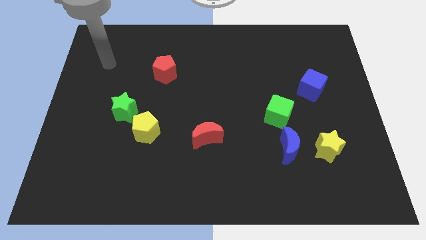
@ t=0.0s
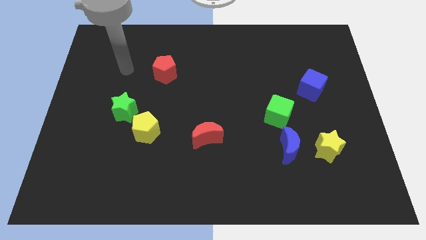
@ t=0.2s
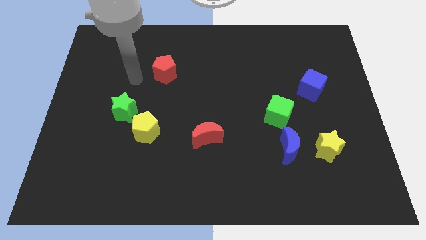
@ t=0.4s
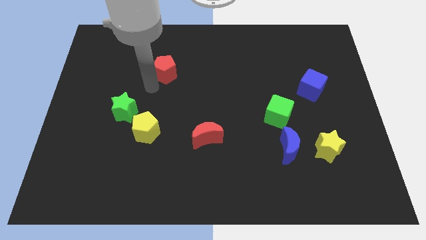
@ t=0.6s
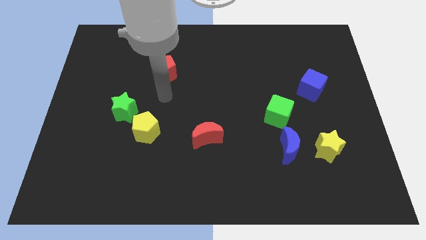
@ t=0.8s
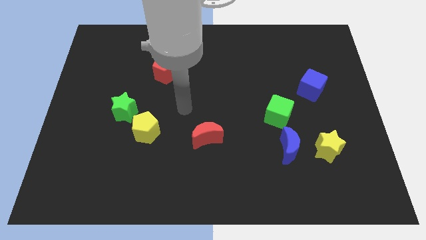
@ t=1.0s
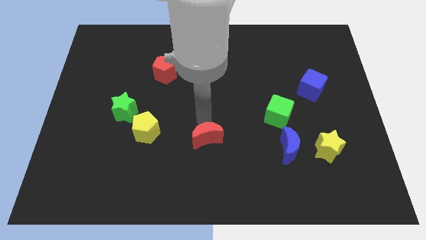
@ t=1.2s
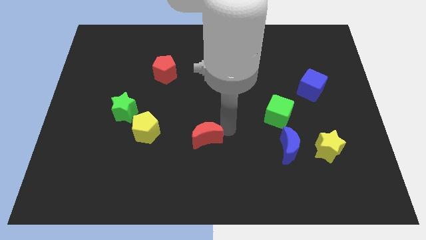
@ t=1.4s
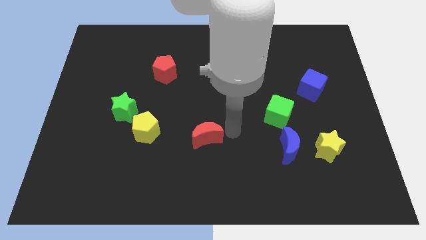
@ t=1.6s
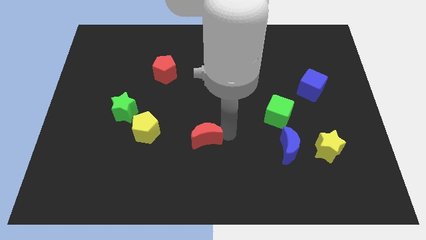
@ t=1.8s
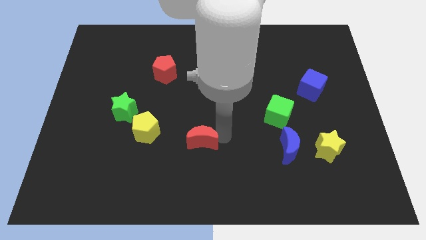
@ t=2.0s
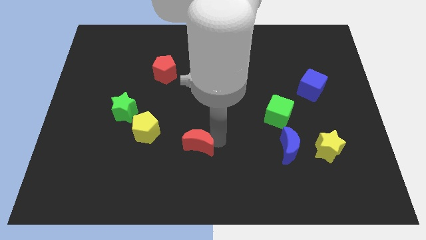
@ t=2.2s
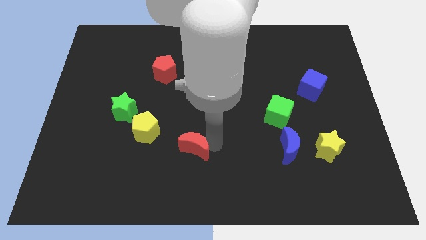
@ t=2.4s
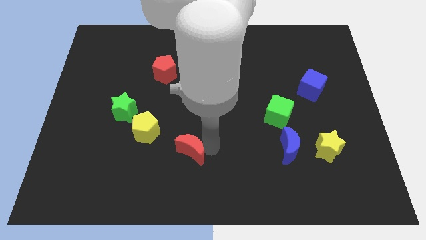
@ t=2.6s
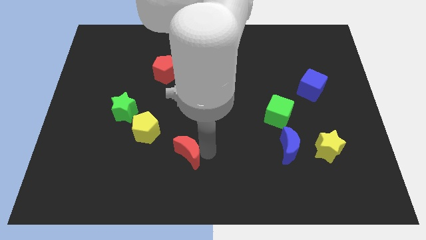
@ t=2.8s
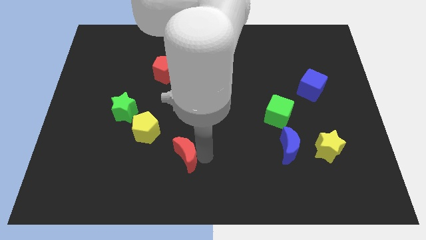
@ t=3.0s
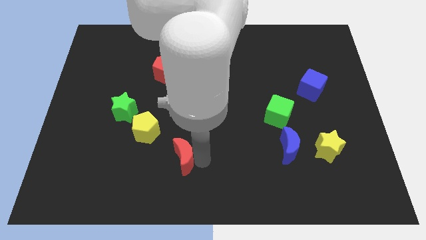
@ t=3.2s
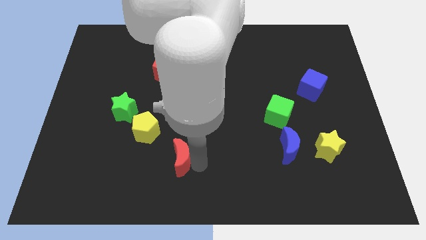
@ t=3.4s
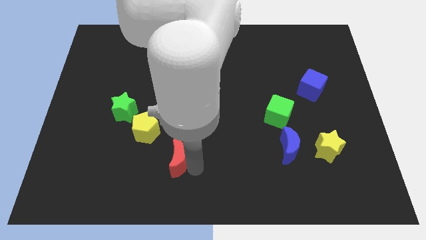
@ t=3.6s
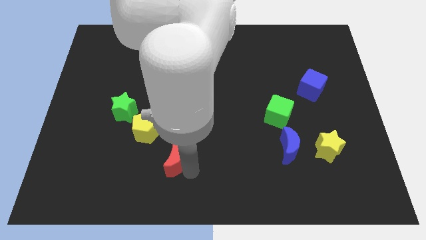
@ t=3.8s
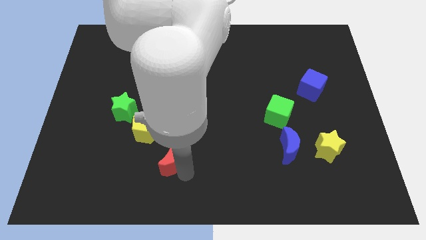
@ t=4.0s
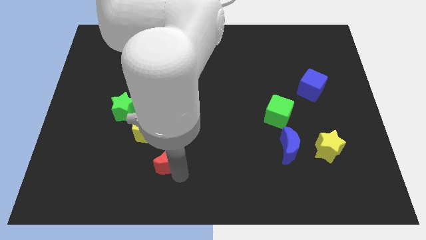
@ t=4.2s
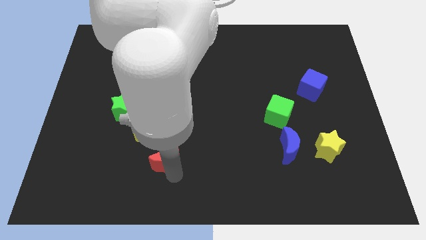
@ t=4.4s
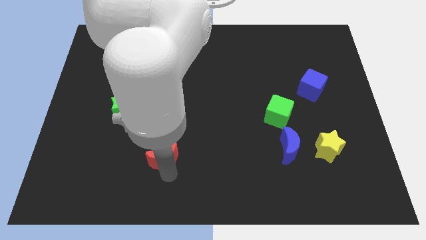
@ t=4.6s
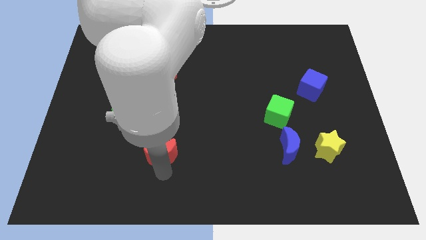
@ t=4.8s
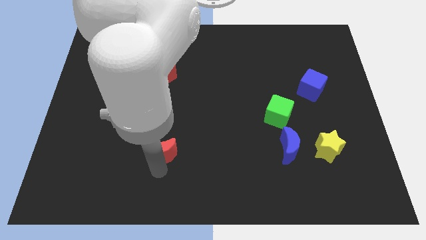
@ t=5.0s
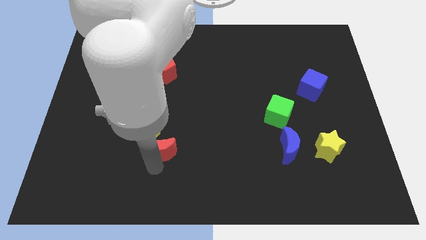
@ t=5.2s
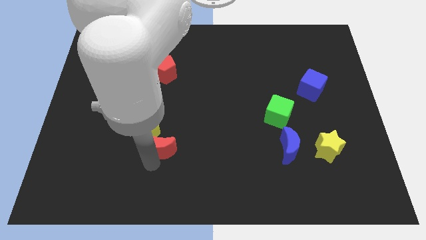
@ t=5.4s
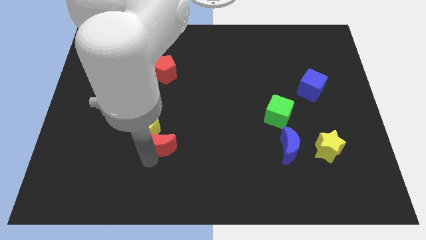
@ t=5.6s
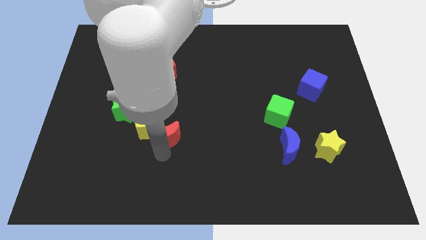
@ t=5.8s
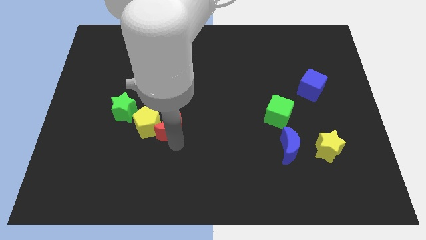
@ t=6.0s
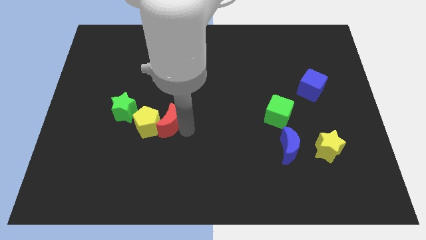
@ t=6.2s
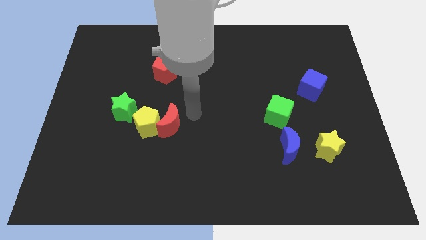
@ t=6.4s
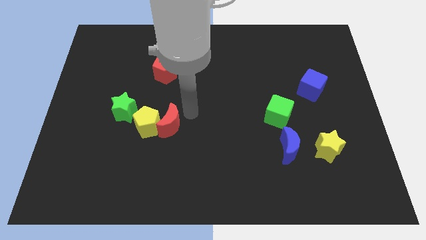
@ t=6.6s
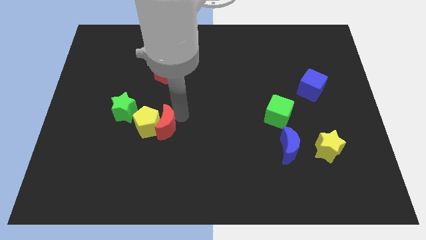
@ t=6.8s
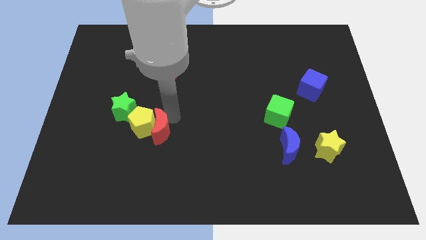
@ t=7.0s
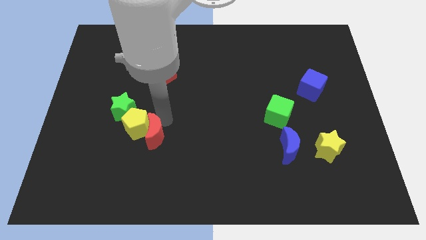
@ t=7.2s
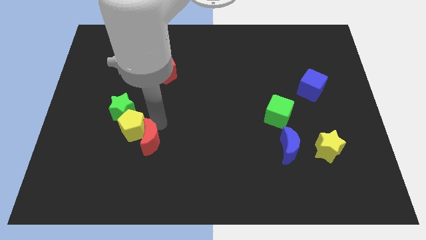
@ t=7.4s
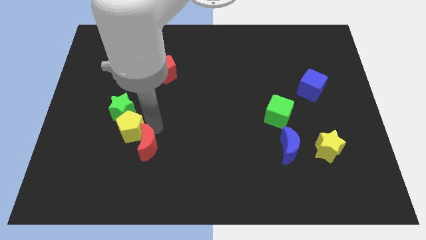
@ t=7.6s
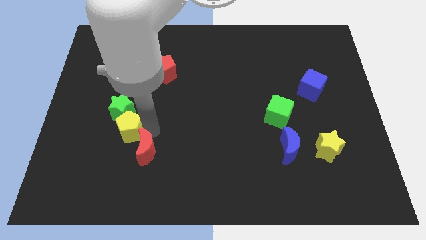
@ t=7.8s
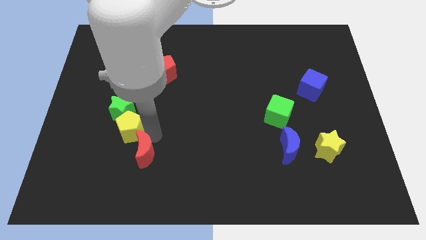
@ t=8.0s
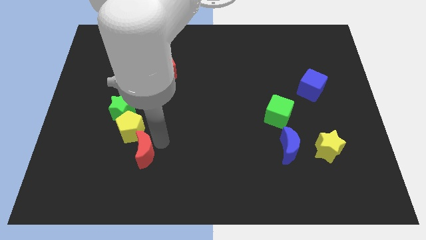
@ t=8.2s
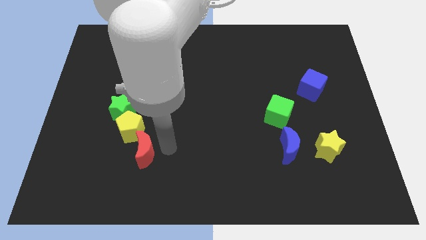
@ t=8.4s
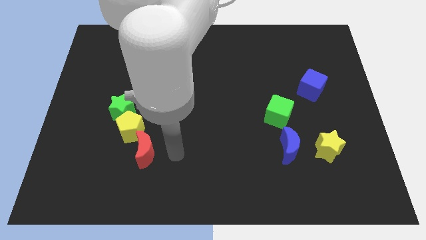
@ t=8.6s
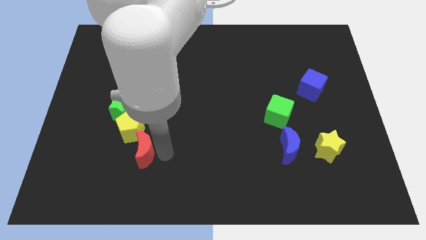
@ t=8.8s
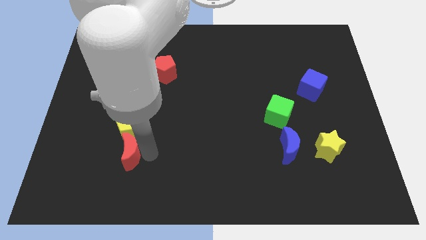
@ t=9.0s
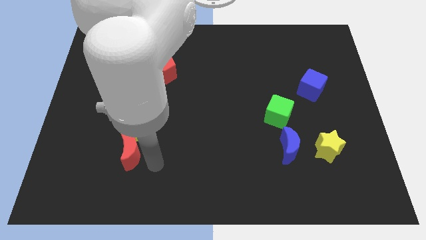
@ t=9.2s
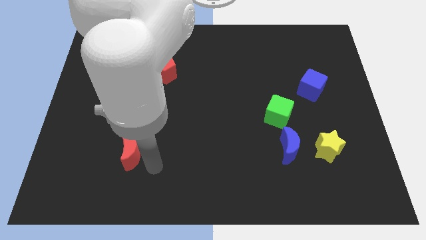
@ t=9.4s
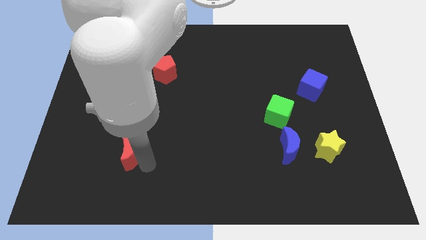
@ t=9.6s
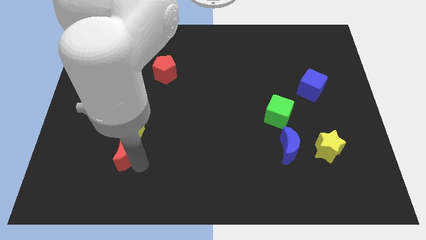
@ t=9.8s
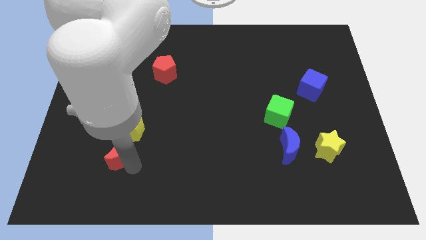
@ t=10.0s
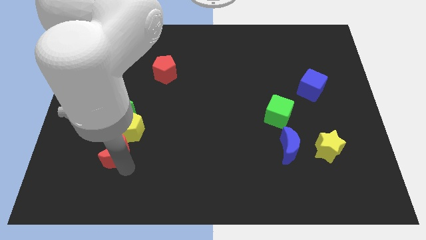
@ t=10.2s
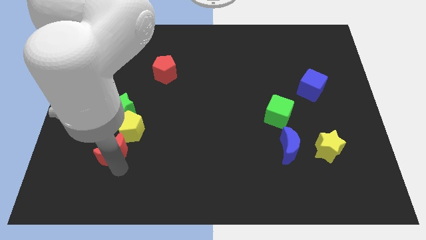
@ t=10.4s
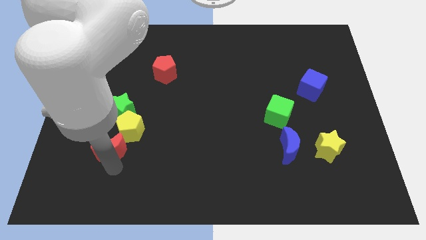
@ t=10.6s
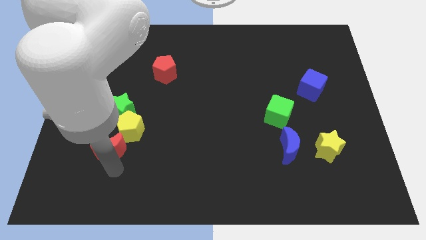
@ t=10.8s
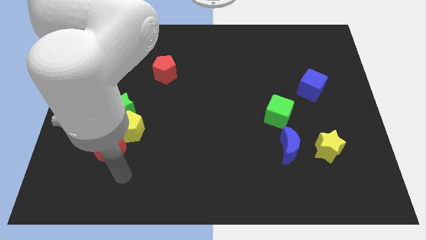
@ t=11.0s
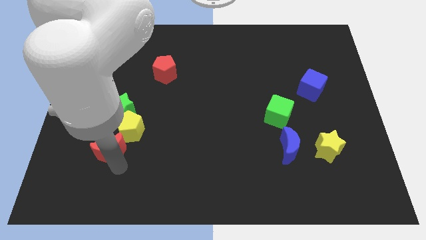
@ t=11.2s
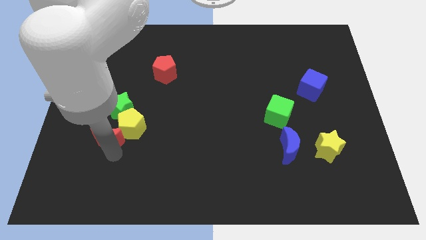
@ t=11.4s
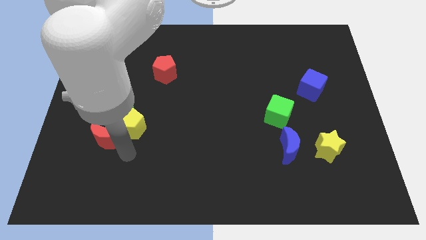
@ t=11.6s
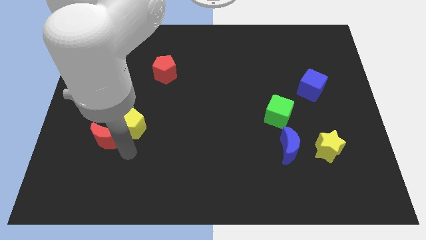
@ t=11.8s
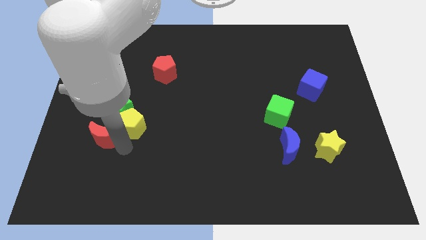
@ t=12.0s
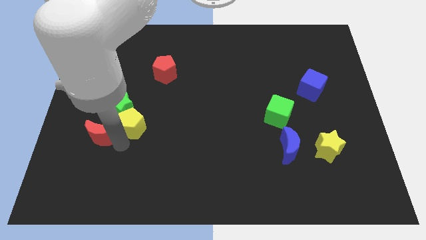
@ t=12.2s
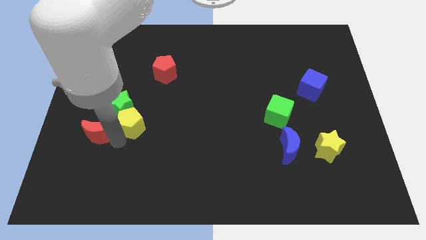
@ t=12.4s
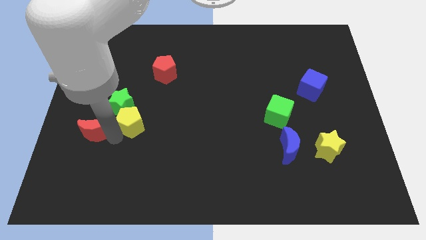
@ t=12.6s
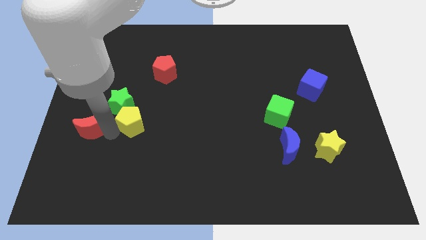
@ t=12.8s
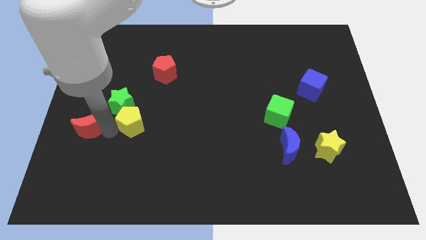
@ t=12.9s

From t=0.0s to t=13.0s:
move the red moon to the left side of the board
